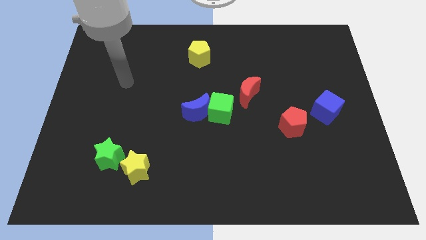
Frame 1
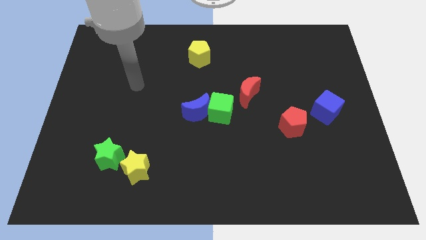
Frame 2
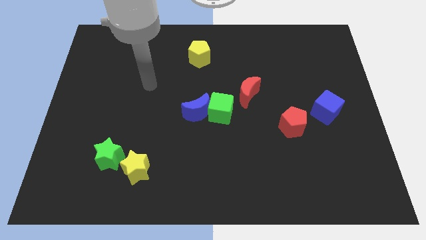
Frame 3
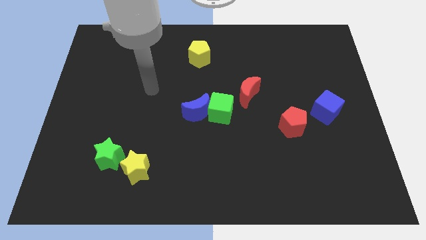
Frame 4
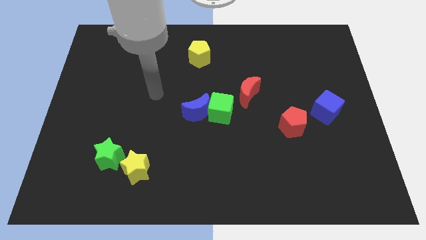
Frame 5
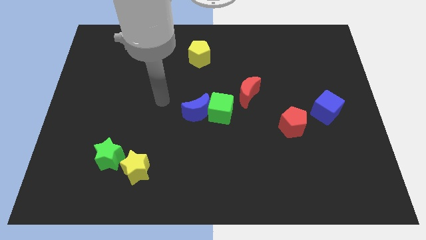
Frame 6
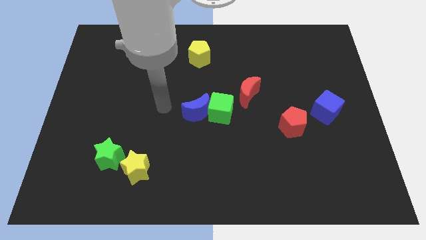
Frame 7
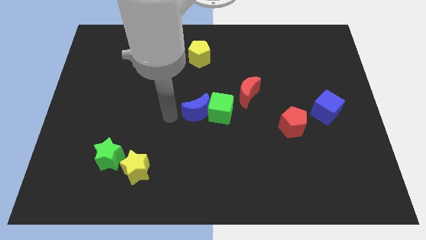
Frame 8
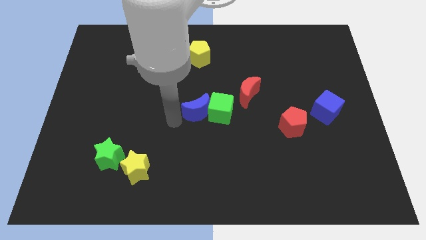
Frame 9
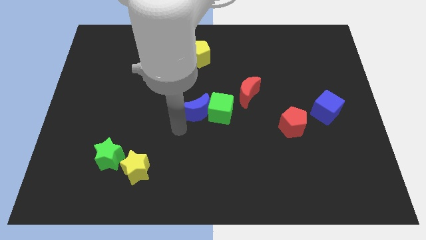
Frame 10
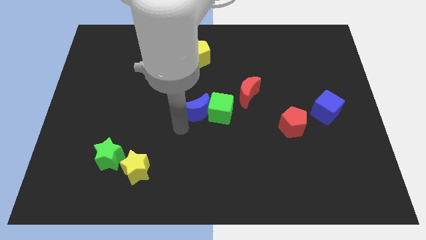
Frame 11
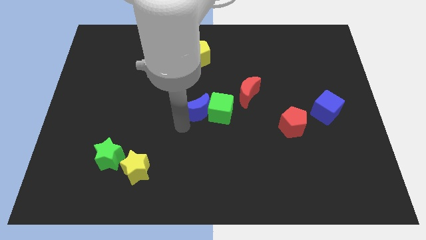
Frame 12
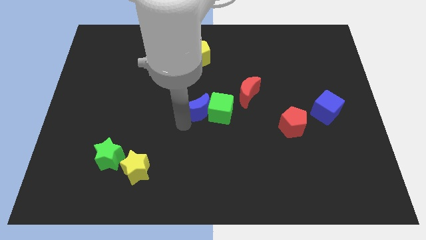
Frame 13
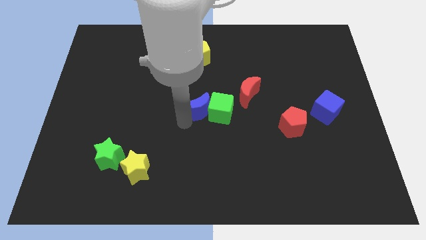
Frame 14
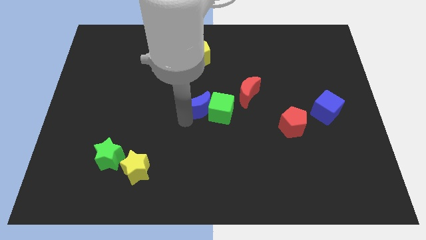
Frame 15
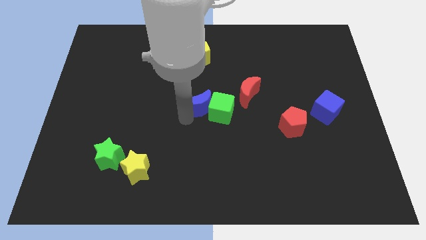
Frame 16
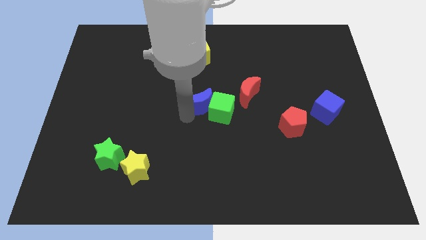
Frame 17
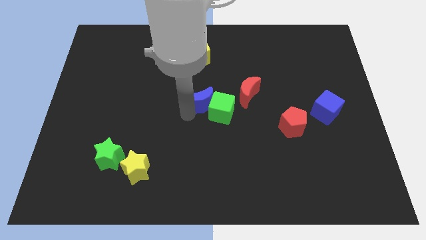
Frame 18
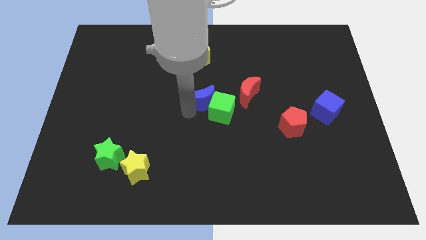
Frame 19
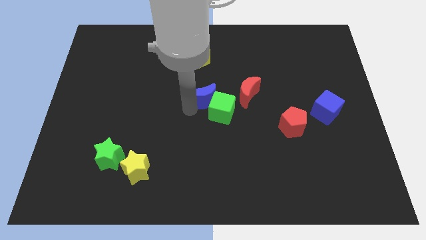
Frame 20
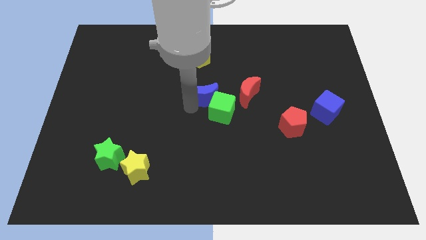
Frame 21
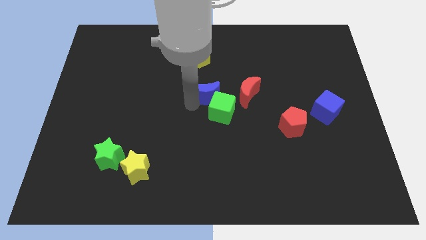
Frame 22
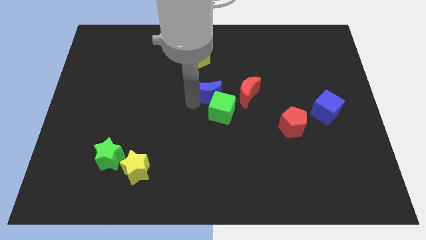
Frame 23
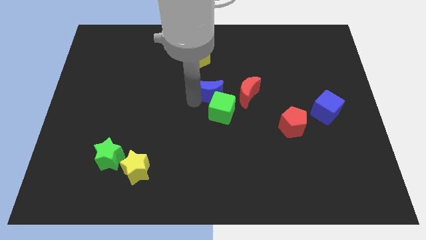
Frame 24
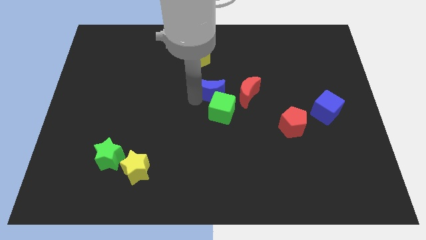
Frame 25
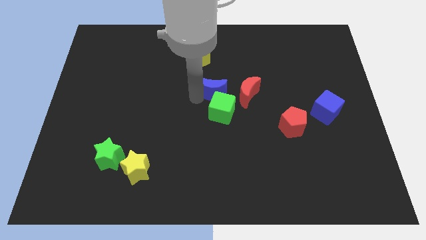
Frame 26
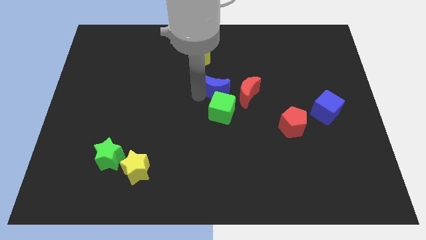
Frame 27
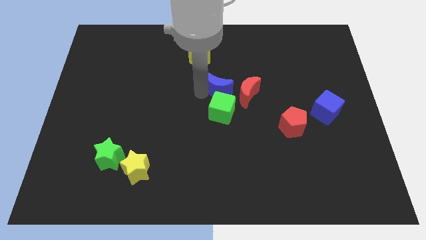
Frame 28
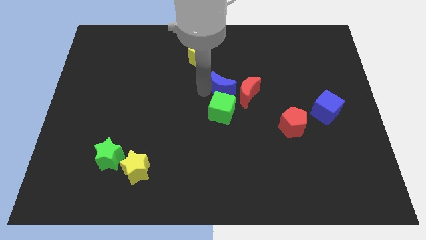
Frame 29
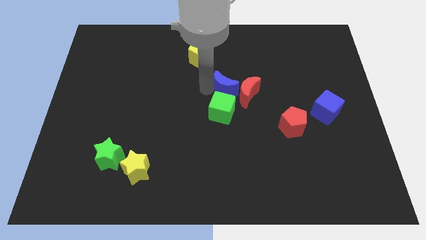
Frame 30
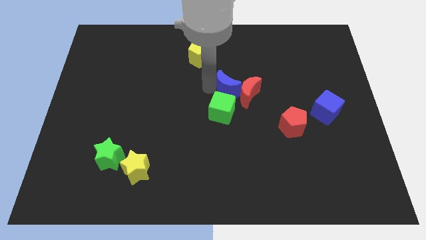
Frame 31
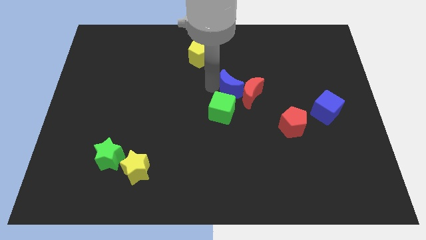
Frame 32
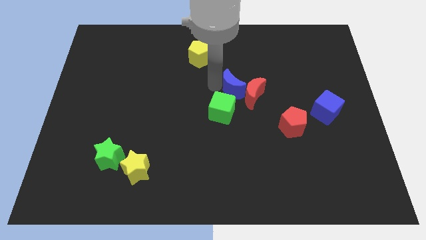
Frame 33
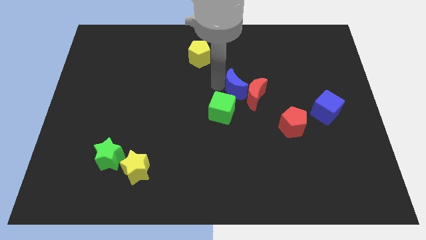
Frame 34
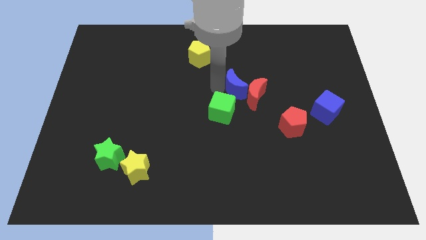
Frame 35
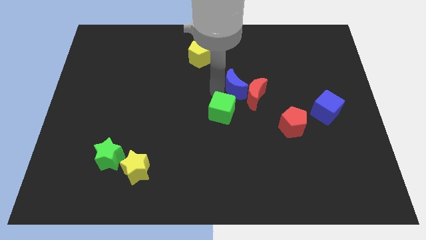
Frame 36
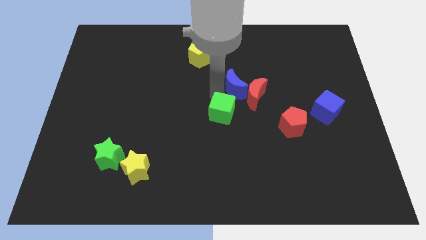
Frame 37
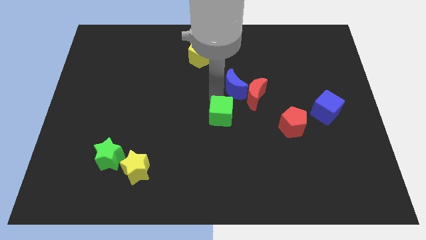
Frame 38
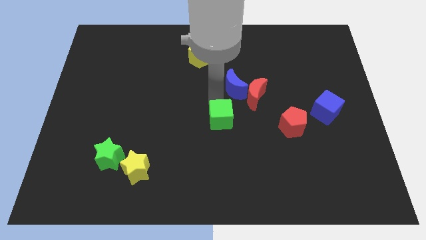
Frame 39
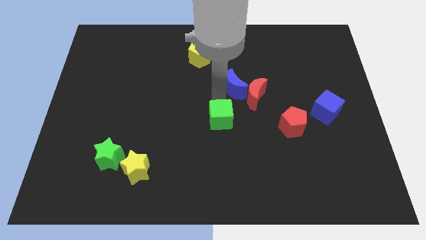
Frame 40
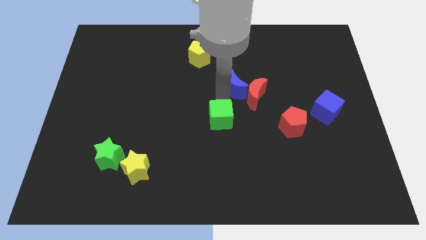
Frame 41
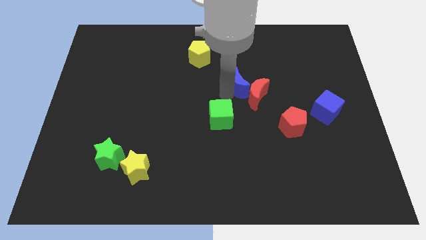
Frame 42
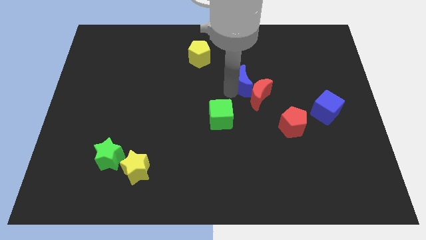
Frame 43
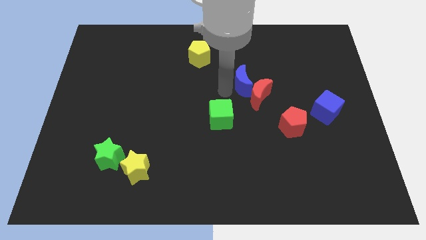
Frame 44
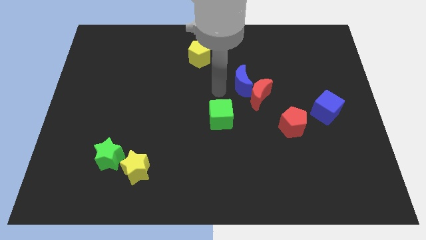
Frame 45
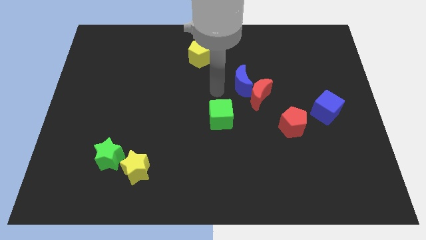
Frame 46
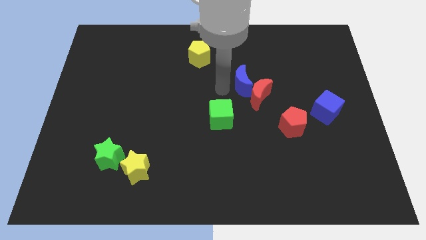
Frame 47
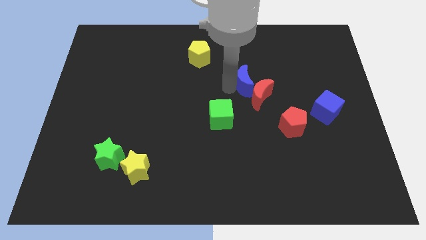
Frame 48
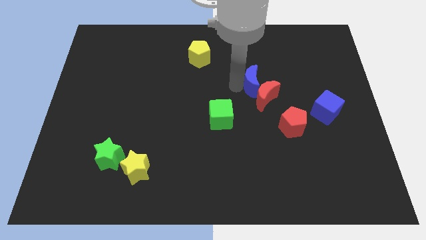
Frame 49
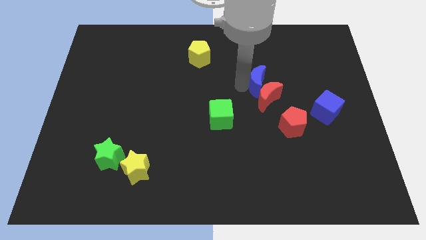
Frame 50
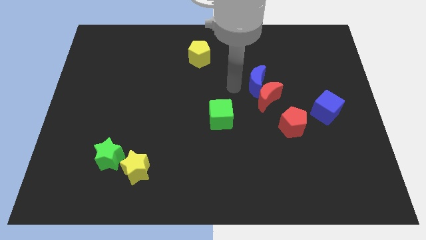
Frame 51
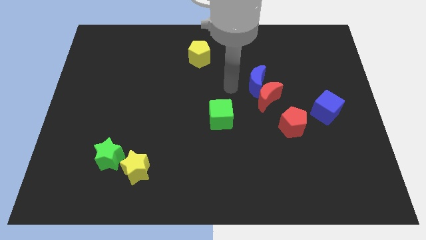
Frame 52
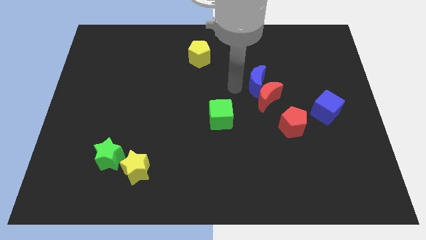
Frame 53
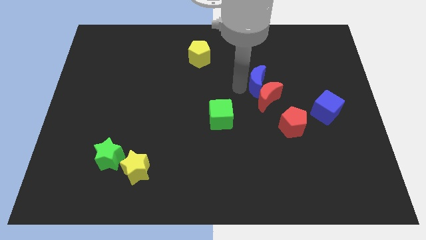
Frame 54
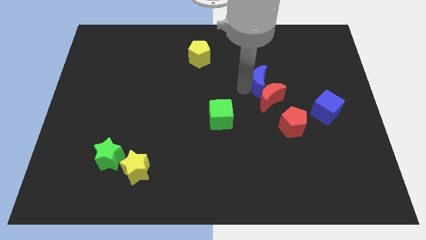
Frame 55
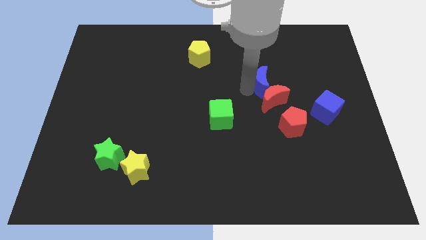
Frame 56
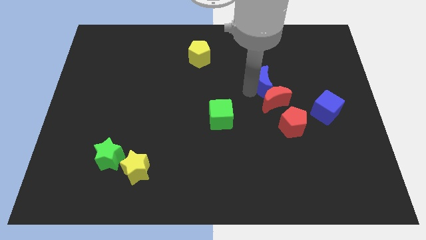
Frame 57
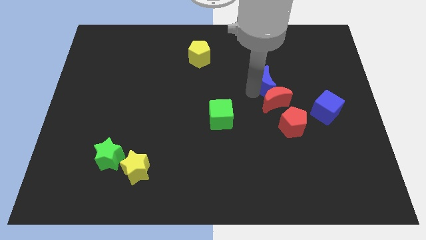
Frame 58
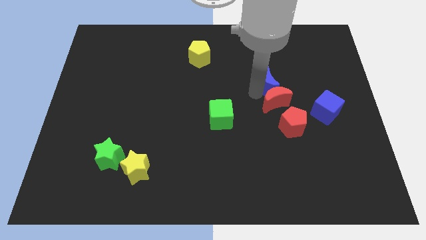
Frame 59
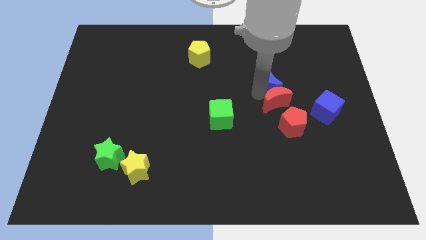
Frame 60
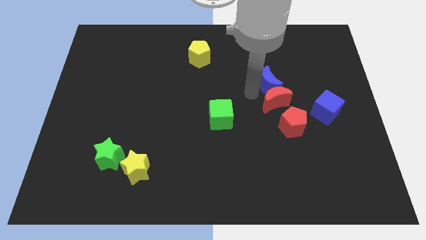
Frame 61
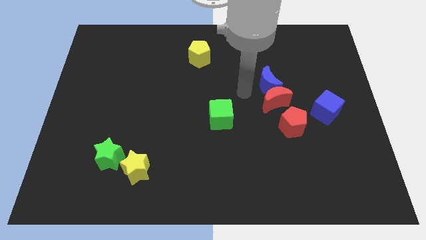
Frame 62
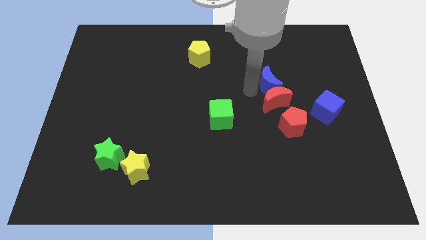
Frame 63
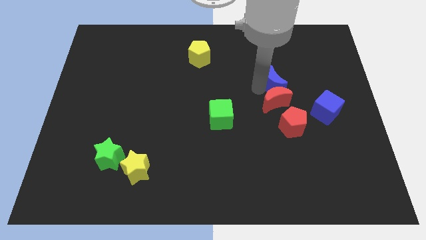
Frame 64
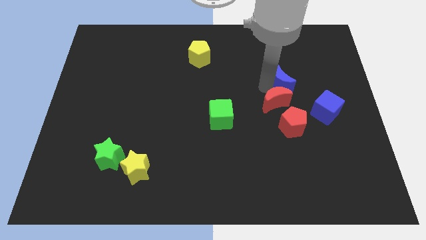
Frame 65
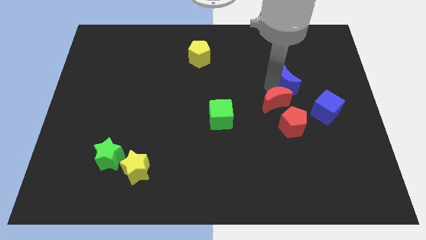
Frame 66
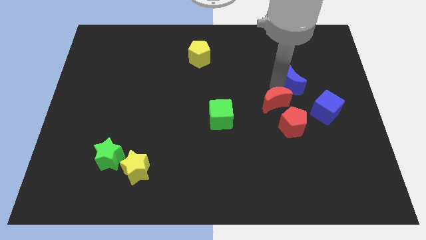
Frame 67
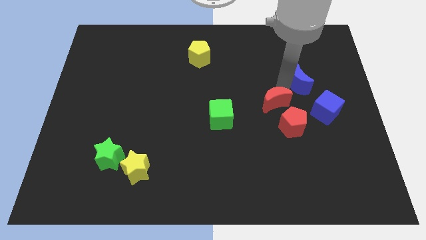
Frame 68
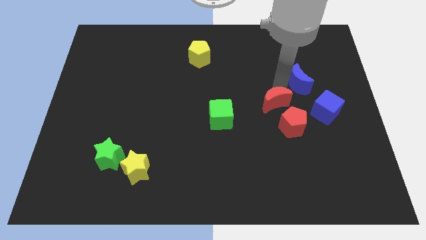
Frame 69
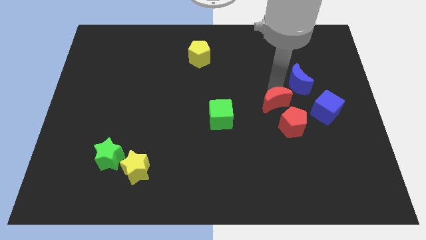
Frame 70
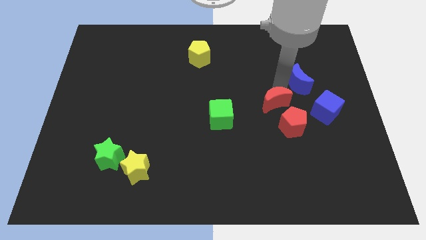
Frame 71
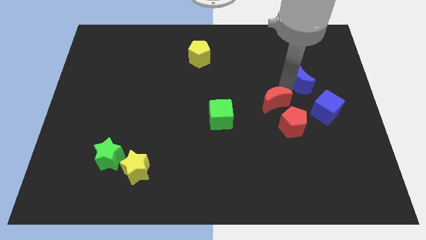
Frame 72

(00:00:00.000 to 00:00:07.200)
put the blue moon to the top side of the blue cube

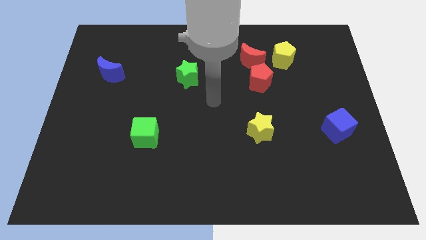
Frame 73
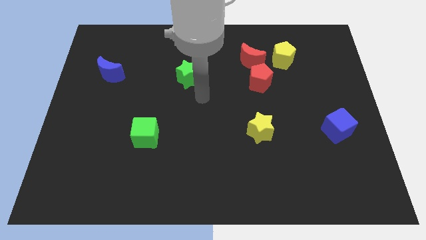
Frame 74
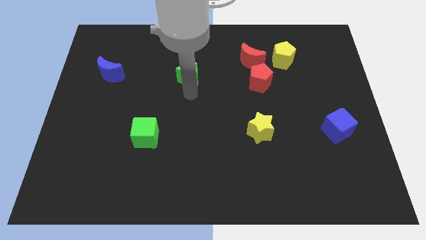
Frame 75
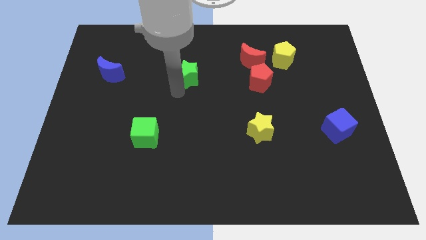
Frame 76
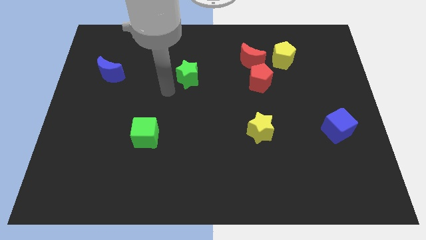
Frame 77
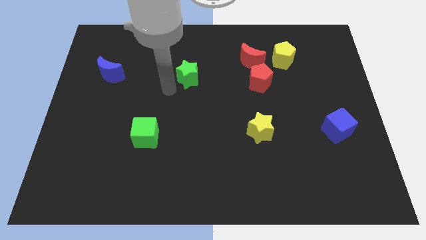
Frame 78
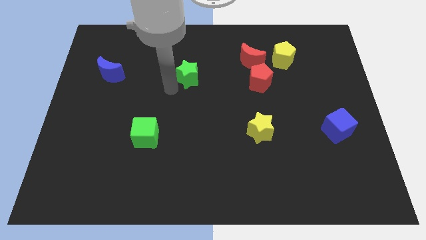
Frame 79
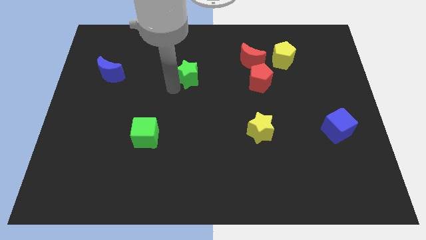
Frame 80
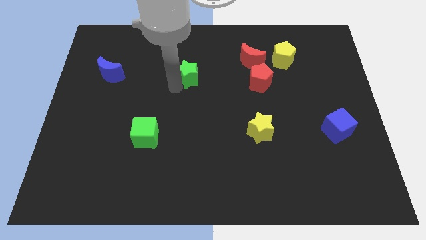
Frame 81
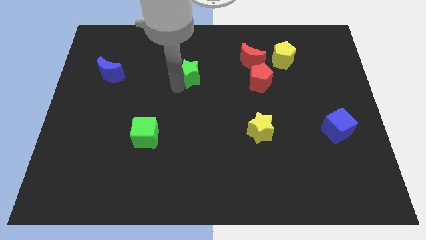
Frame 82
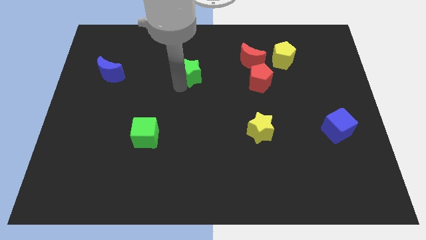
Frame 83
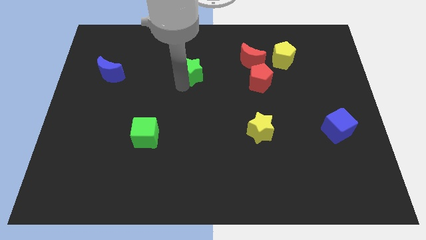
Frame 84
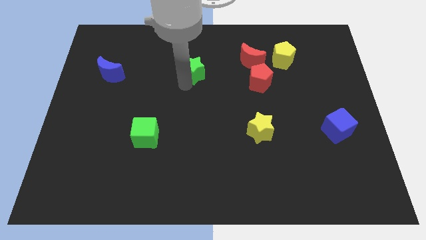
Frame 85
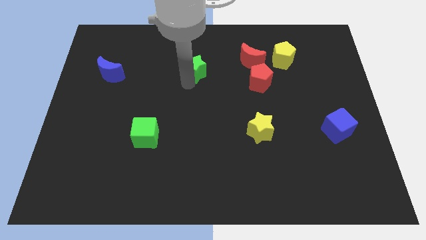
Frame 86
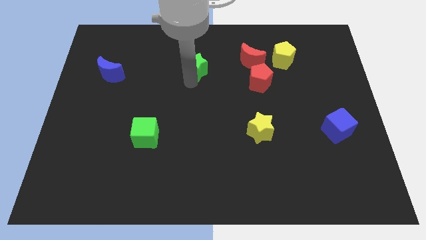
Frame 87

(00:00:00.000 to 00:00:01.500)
move the green star to the left side of the red moon
